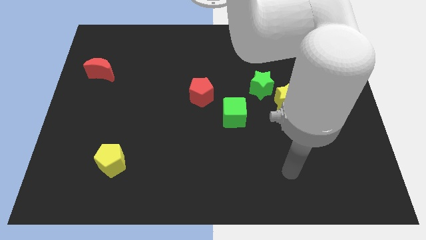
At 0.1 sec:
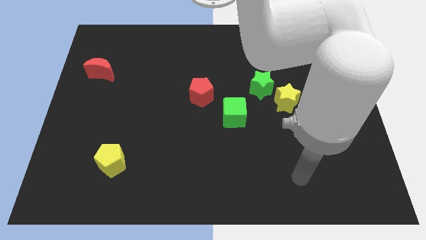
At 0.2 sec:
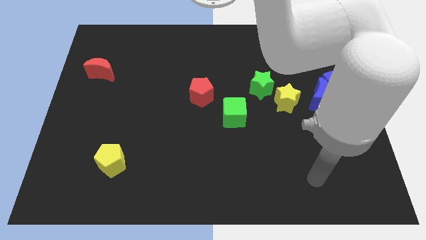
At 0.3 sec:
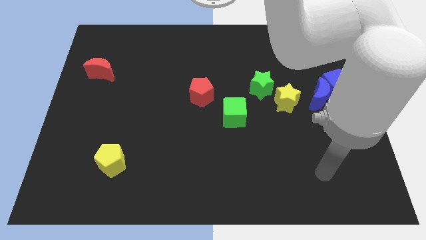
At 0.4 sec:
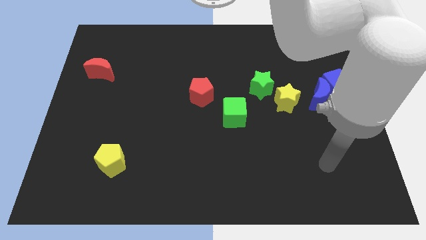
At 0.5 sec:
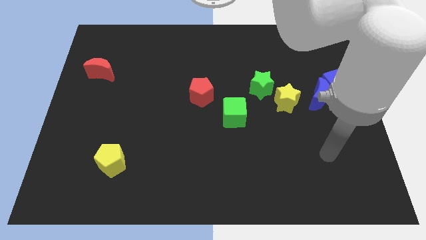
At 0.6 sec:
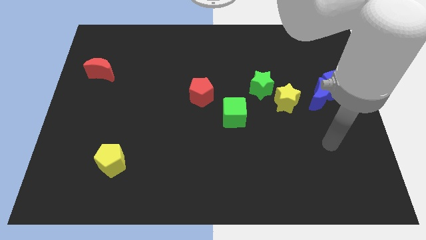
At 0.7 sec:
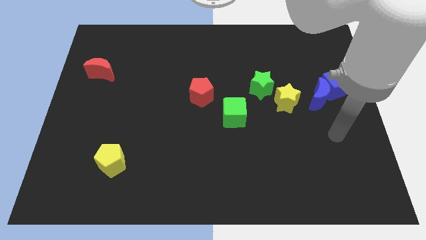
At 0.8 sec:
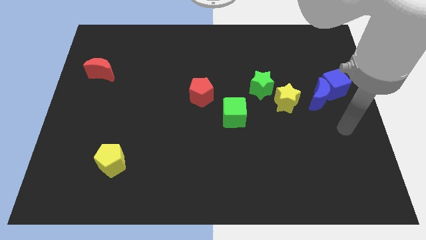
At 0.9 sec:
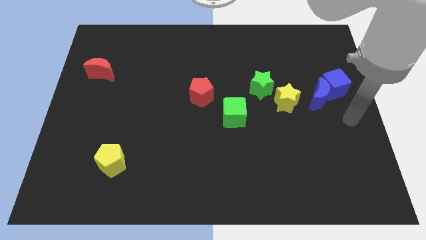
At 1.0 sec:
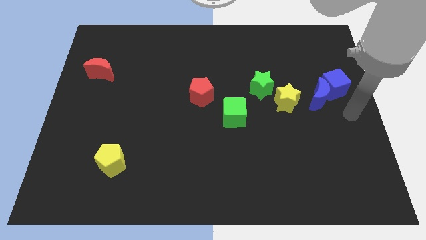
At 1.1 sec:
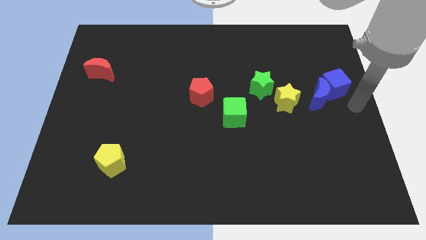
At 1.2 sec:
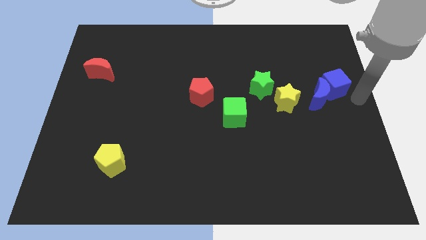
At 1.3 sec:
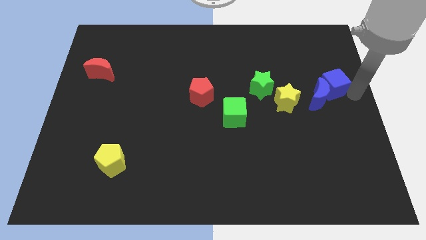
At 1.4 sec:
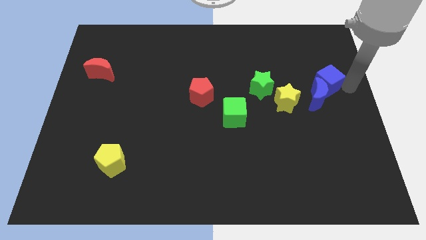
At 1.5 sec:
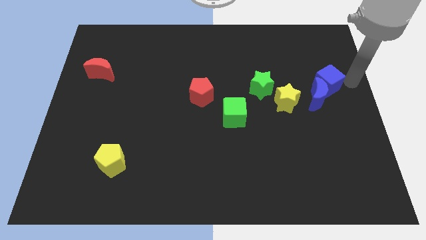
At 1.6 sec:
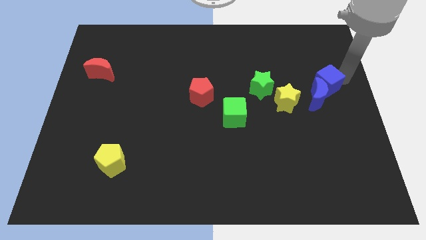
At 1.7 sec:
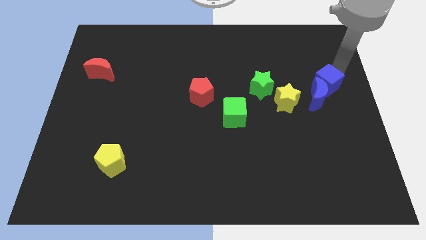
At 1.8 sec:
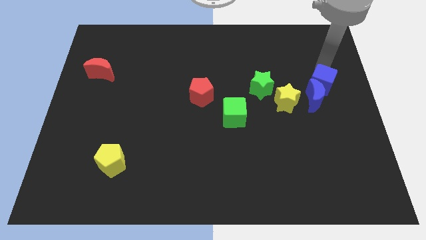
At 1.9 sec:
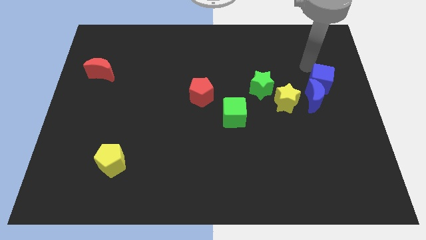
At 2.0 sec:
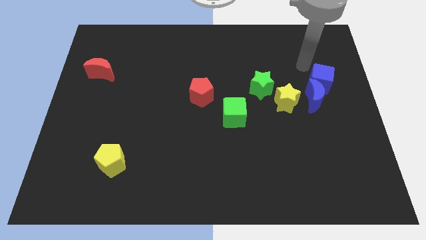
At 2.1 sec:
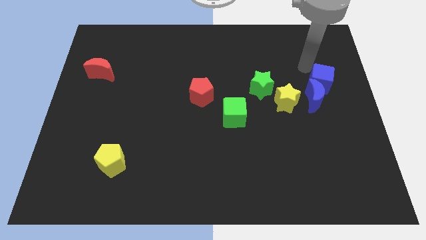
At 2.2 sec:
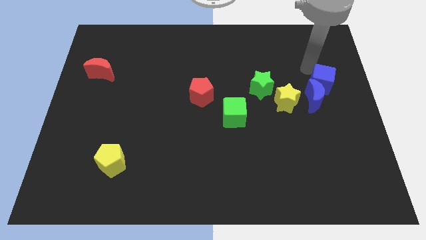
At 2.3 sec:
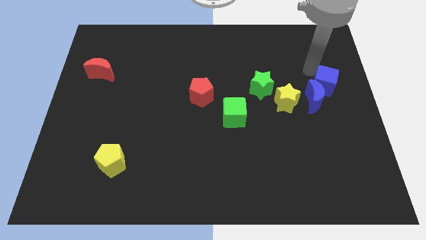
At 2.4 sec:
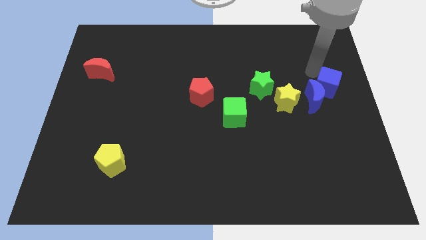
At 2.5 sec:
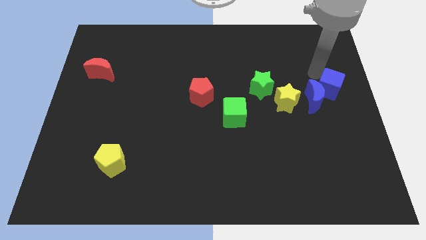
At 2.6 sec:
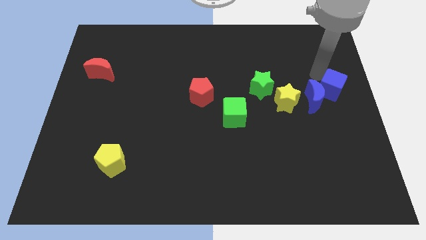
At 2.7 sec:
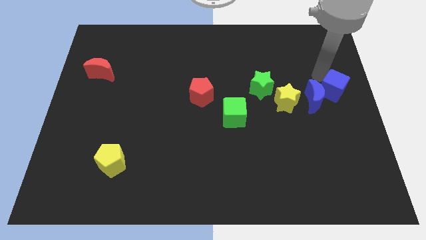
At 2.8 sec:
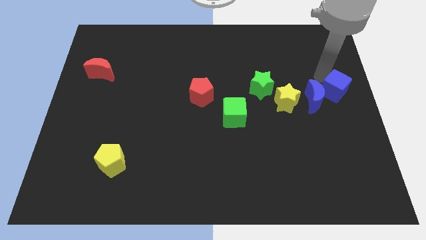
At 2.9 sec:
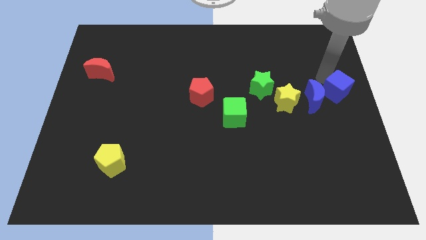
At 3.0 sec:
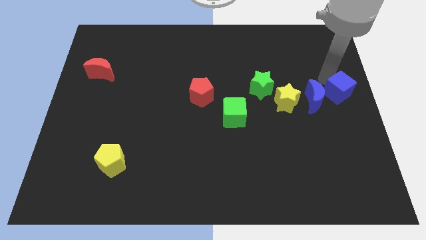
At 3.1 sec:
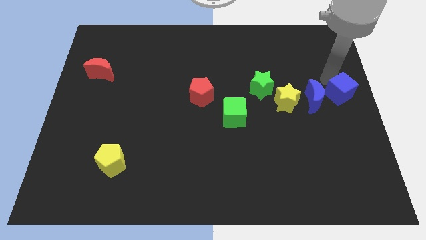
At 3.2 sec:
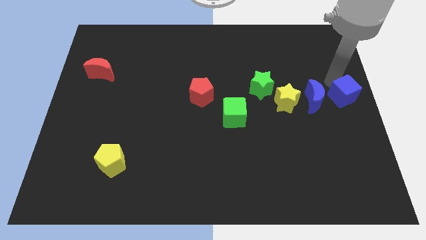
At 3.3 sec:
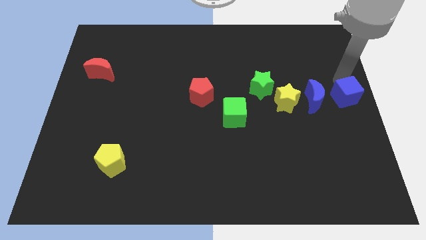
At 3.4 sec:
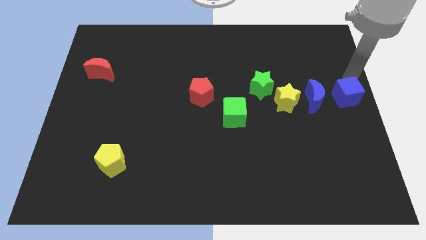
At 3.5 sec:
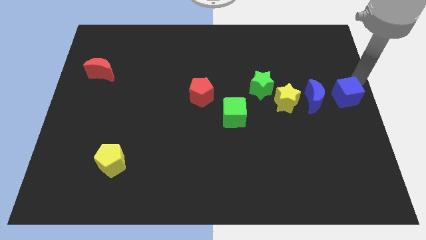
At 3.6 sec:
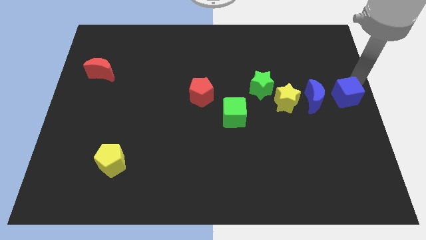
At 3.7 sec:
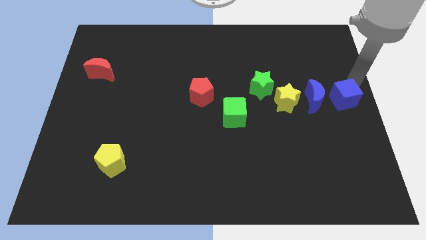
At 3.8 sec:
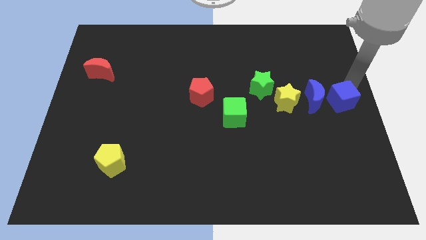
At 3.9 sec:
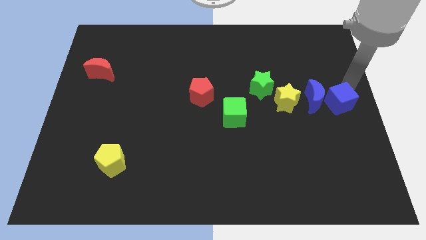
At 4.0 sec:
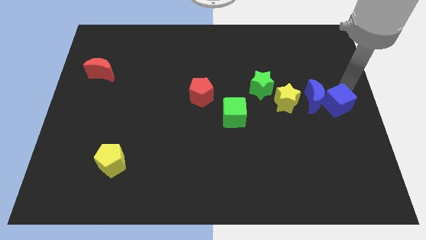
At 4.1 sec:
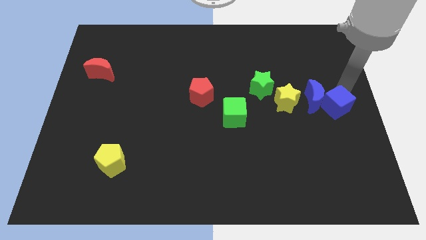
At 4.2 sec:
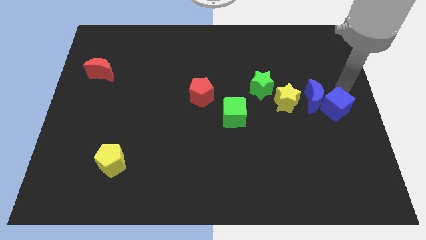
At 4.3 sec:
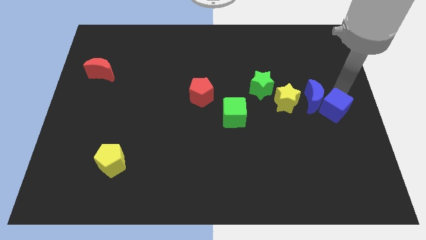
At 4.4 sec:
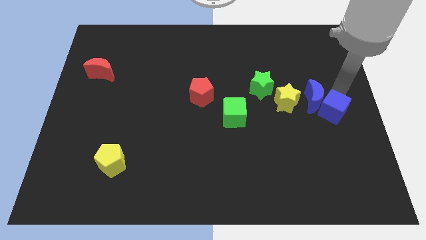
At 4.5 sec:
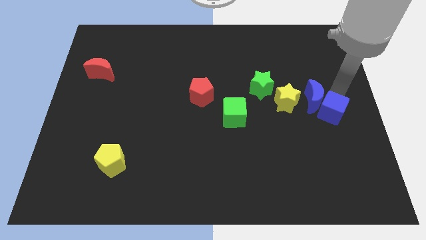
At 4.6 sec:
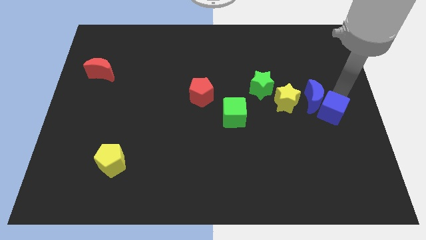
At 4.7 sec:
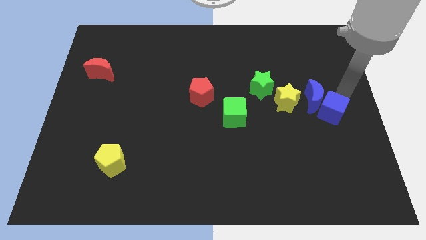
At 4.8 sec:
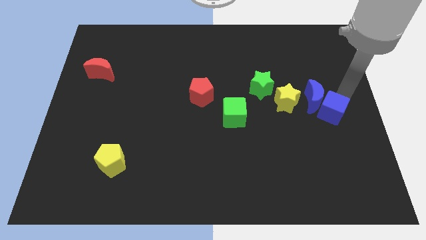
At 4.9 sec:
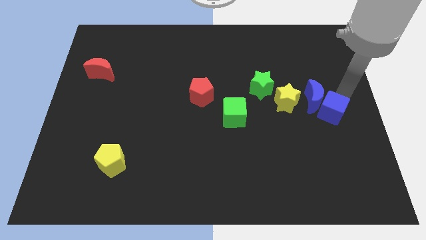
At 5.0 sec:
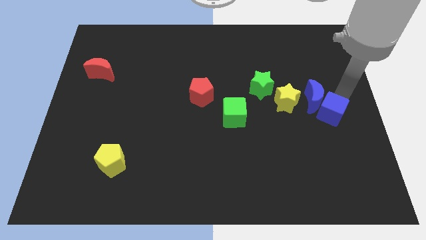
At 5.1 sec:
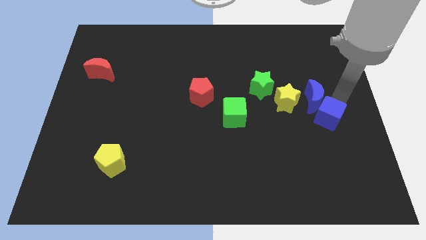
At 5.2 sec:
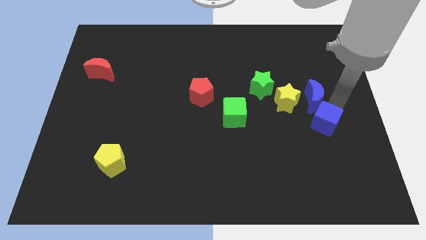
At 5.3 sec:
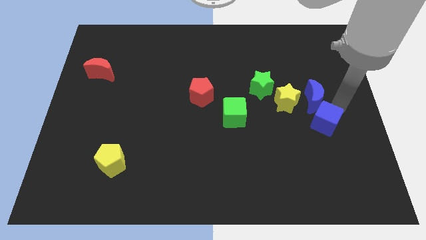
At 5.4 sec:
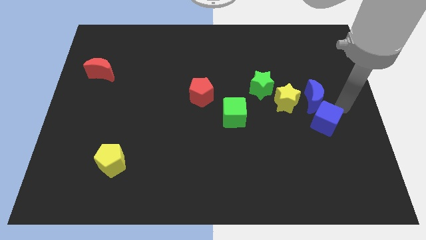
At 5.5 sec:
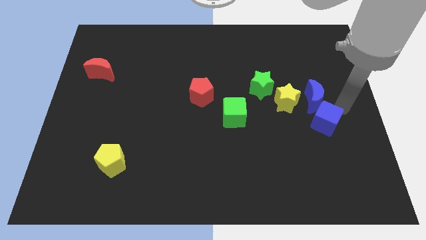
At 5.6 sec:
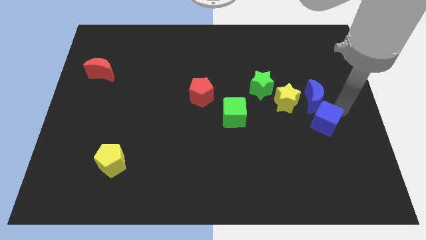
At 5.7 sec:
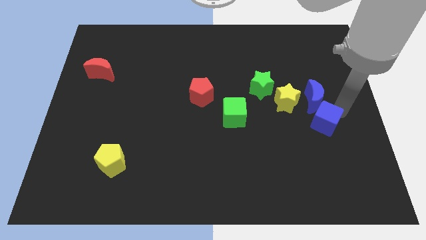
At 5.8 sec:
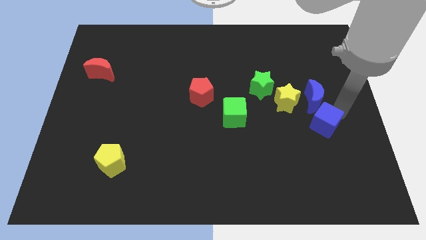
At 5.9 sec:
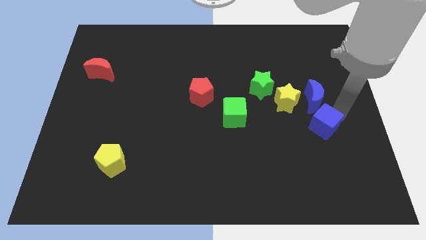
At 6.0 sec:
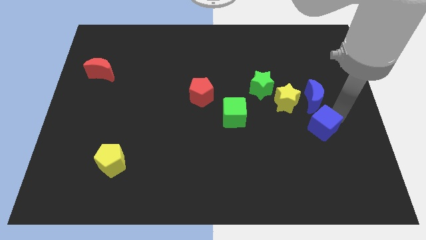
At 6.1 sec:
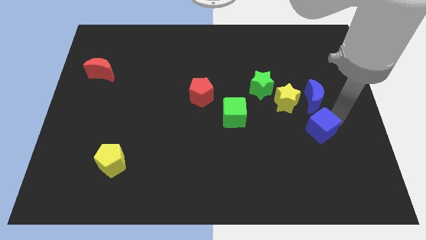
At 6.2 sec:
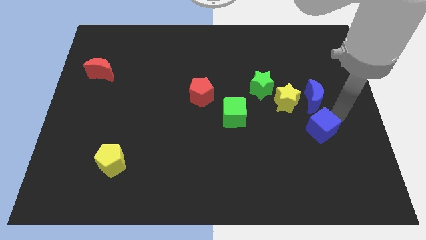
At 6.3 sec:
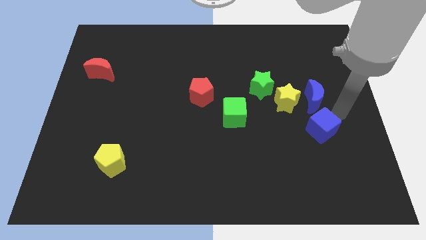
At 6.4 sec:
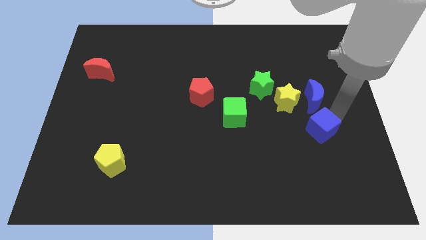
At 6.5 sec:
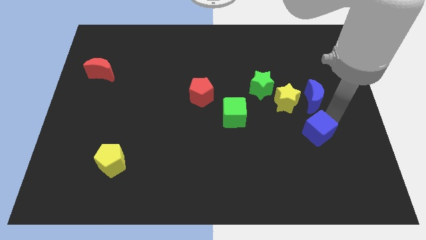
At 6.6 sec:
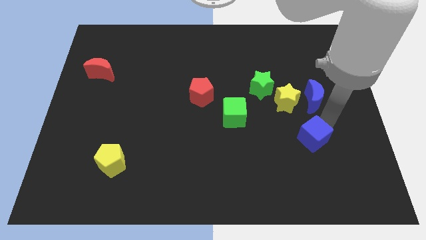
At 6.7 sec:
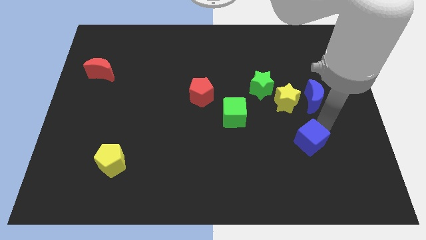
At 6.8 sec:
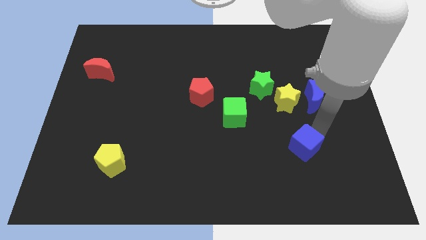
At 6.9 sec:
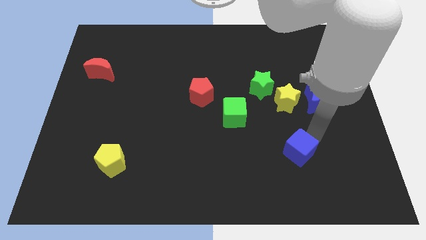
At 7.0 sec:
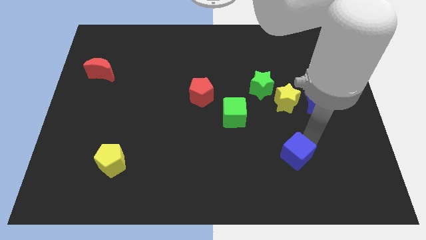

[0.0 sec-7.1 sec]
move the blue cube downwards and left

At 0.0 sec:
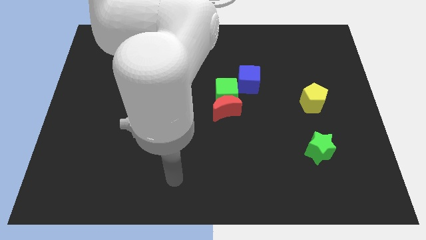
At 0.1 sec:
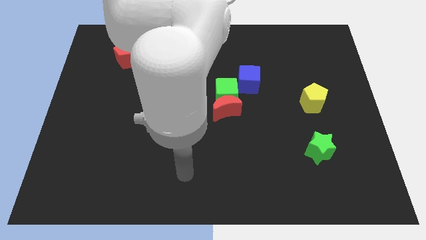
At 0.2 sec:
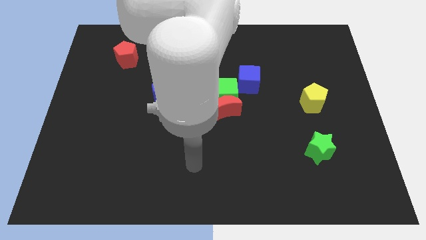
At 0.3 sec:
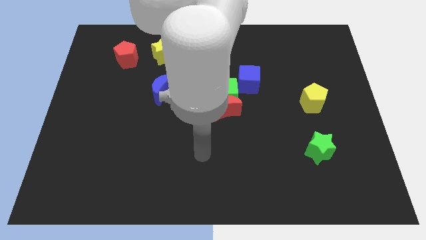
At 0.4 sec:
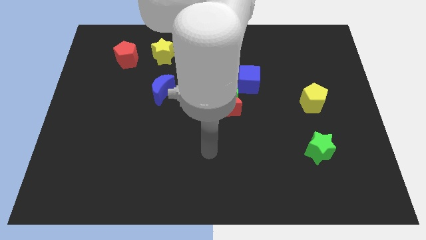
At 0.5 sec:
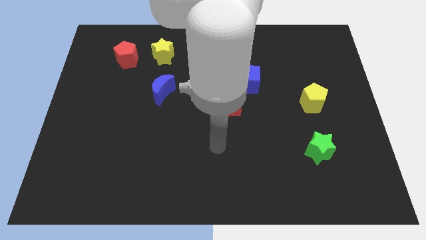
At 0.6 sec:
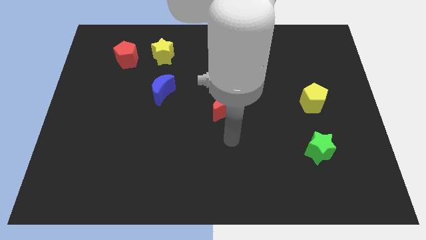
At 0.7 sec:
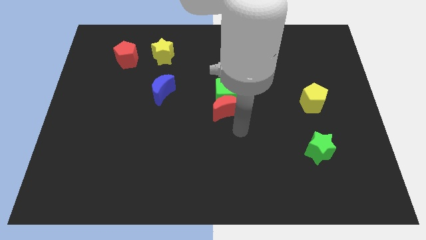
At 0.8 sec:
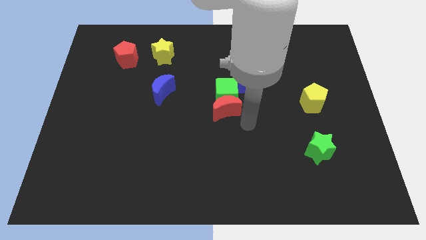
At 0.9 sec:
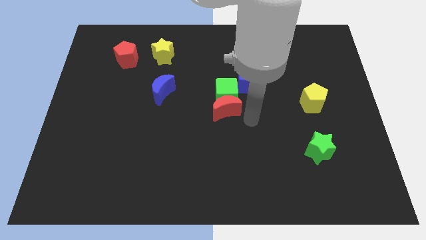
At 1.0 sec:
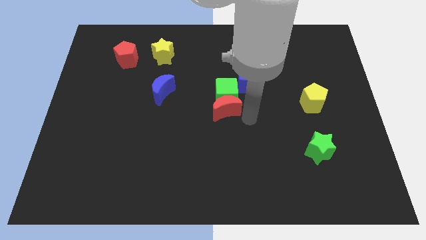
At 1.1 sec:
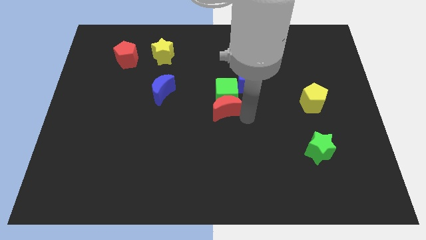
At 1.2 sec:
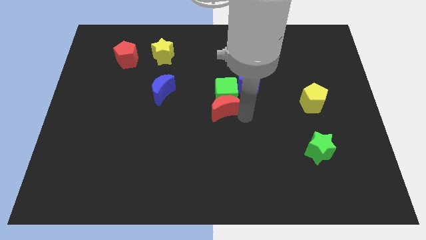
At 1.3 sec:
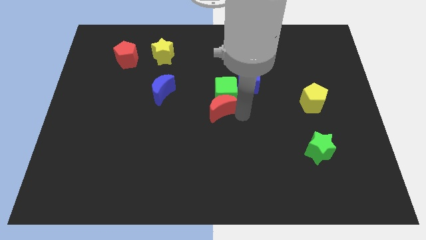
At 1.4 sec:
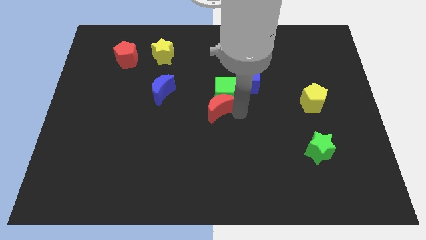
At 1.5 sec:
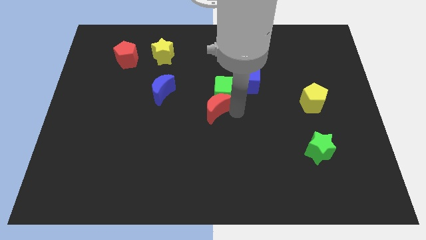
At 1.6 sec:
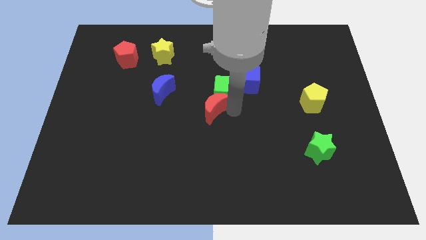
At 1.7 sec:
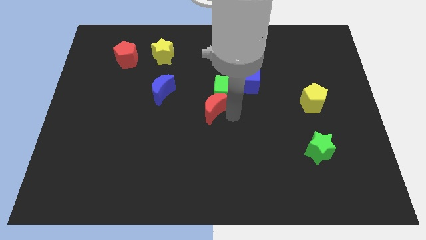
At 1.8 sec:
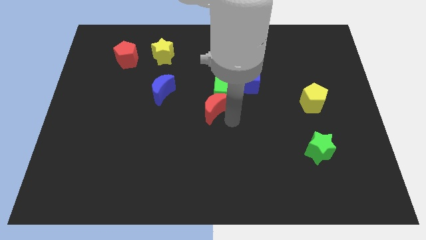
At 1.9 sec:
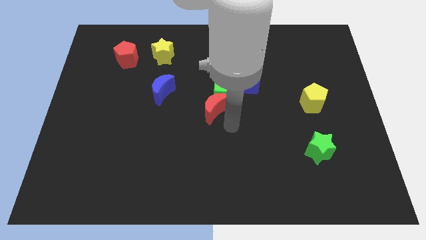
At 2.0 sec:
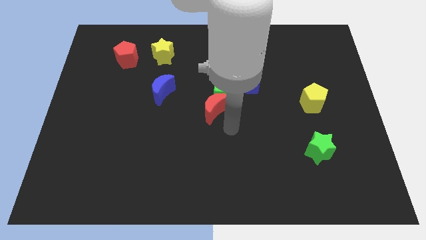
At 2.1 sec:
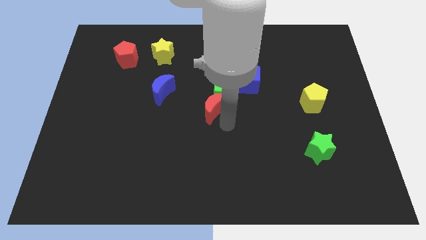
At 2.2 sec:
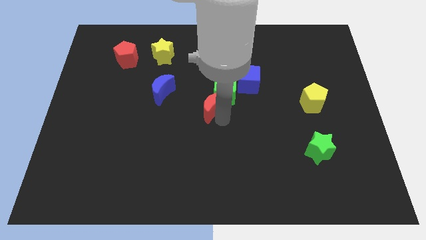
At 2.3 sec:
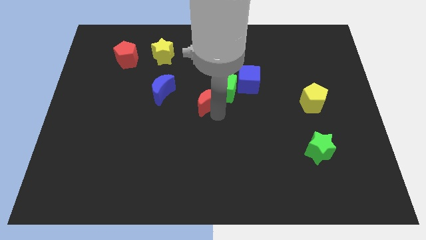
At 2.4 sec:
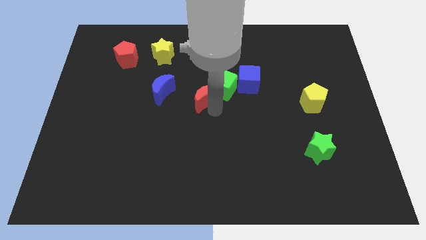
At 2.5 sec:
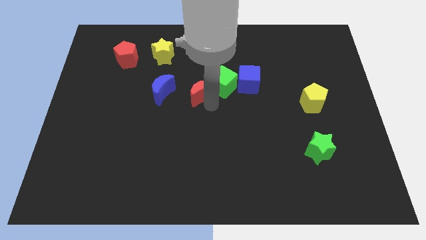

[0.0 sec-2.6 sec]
push the red moon up and to the left a little bit
